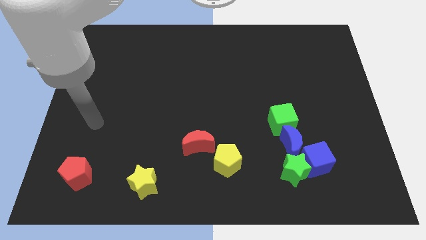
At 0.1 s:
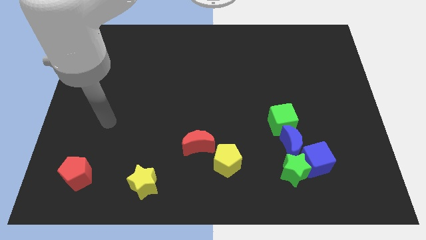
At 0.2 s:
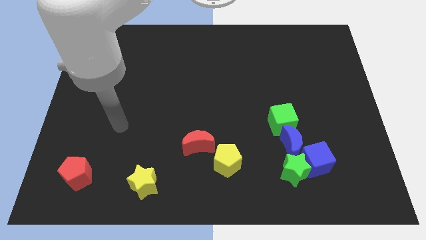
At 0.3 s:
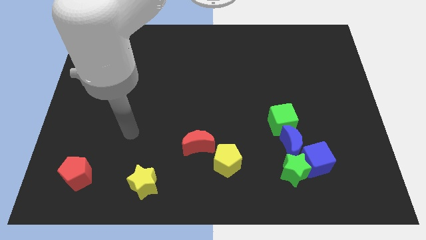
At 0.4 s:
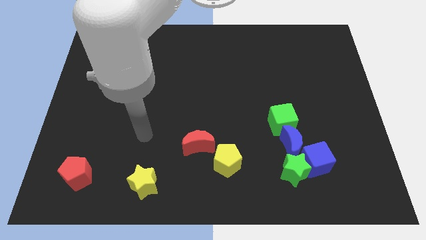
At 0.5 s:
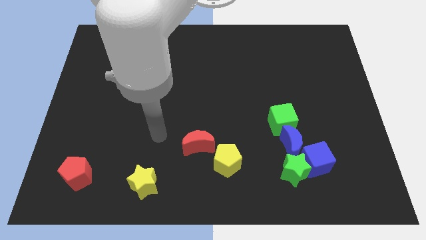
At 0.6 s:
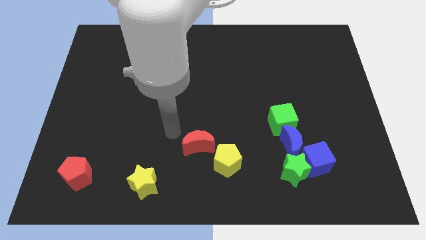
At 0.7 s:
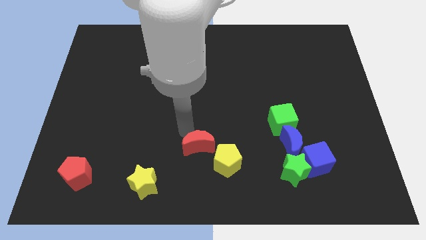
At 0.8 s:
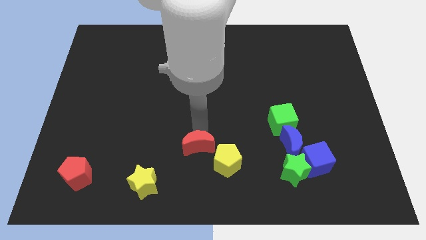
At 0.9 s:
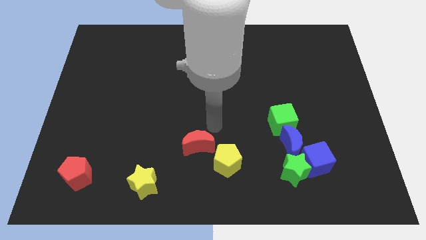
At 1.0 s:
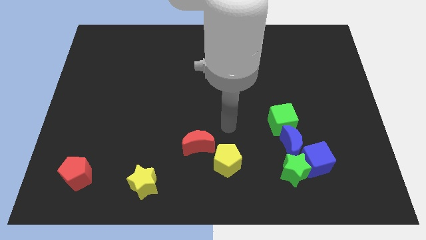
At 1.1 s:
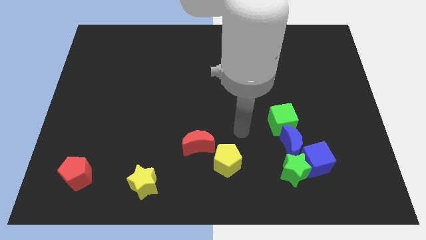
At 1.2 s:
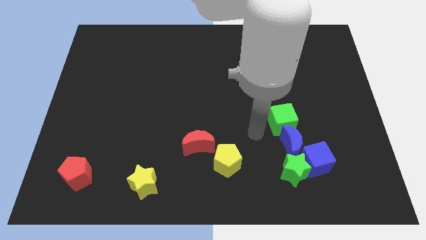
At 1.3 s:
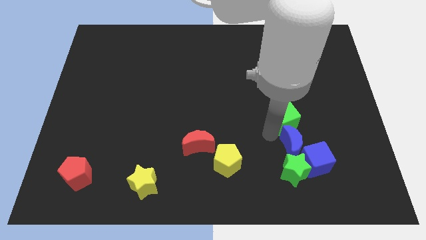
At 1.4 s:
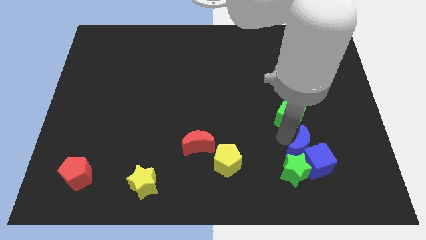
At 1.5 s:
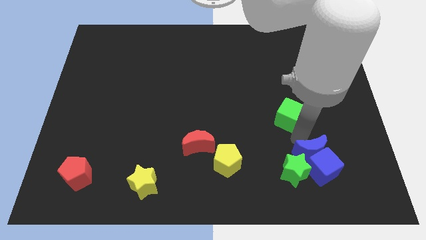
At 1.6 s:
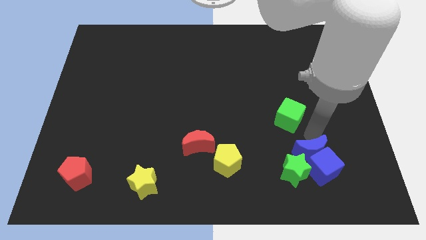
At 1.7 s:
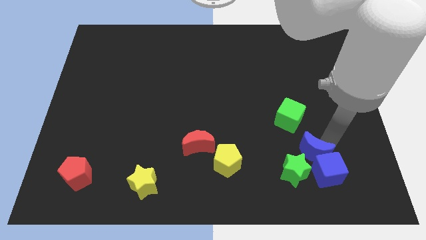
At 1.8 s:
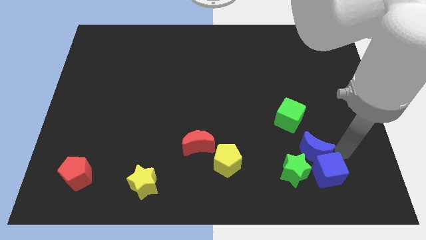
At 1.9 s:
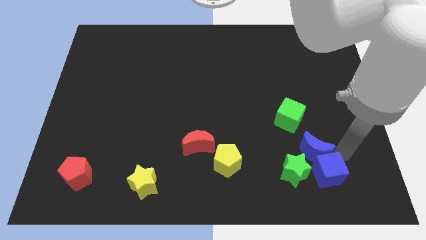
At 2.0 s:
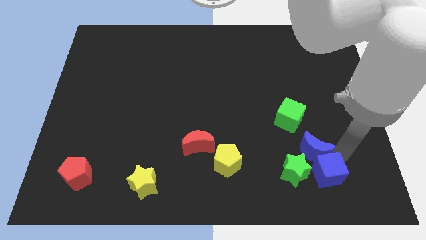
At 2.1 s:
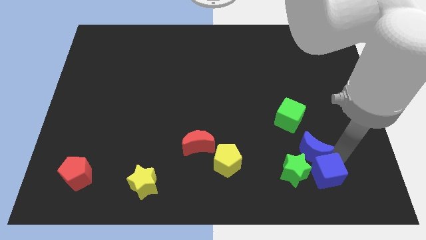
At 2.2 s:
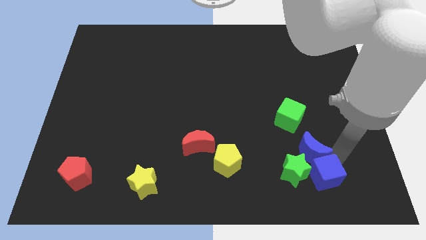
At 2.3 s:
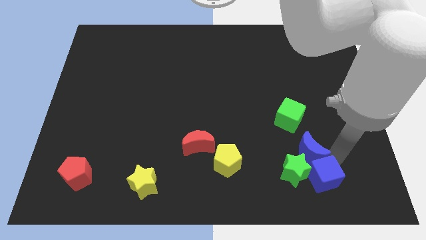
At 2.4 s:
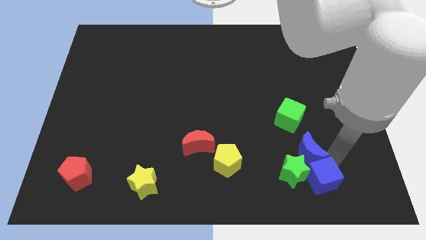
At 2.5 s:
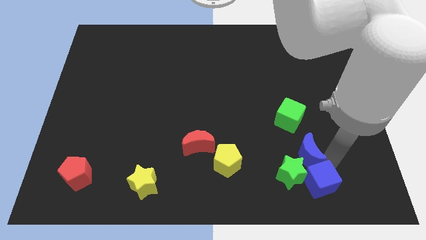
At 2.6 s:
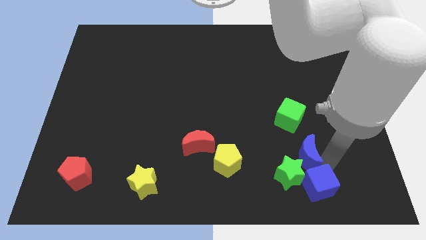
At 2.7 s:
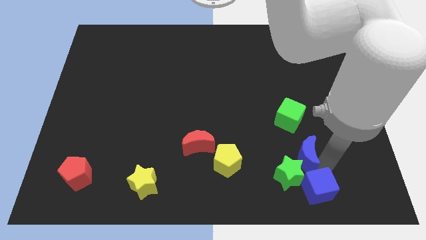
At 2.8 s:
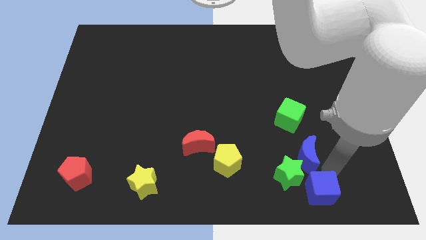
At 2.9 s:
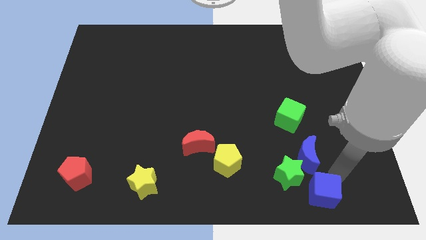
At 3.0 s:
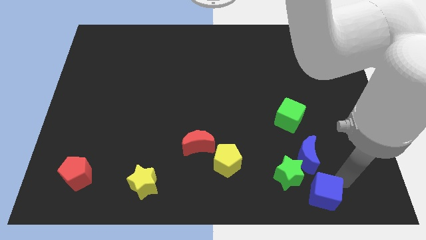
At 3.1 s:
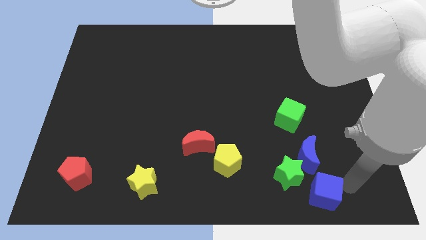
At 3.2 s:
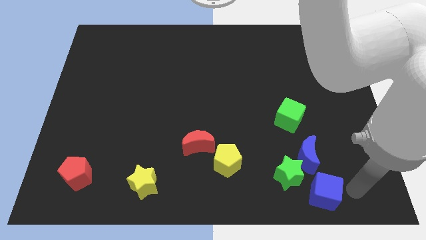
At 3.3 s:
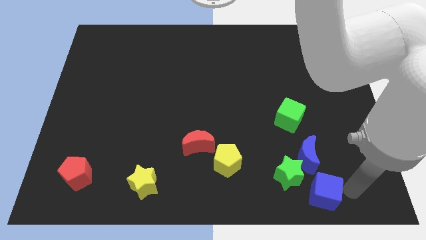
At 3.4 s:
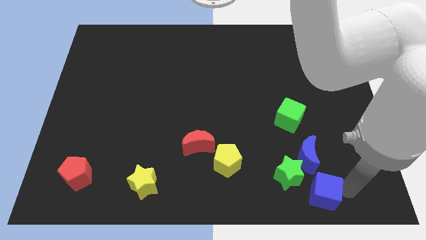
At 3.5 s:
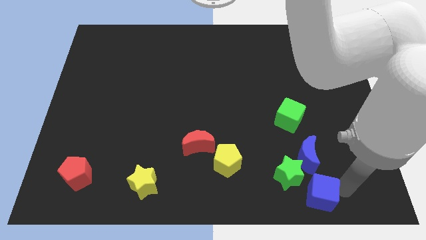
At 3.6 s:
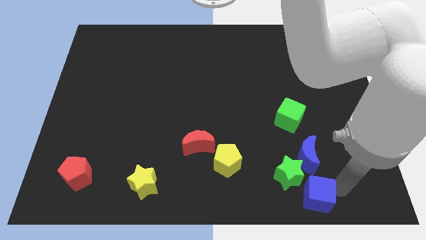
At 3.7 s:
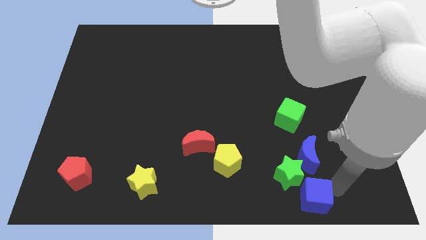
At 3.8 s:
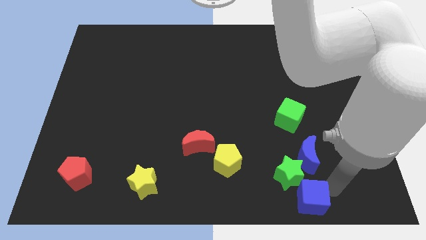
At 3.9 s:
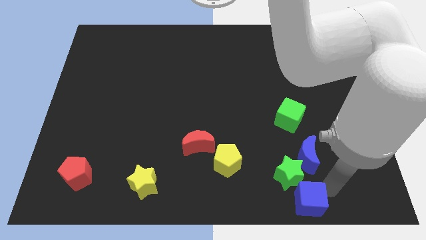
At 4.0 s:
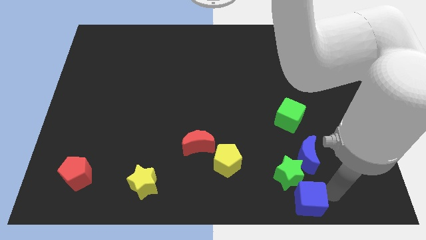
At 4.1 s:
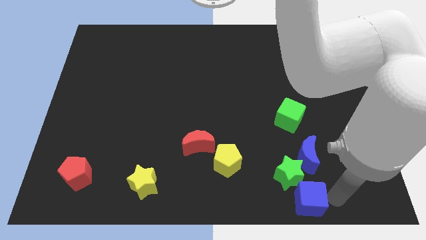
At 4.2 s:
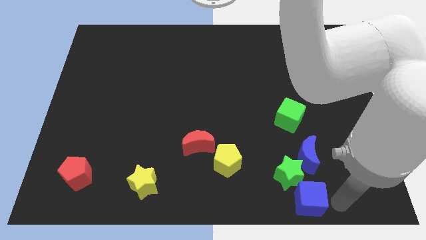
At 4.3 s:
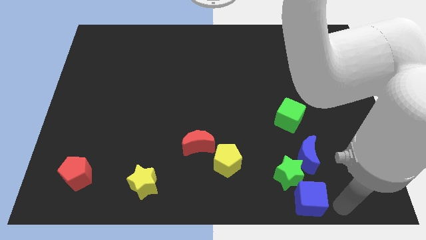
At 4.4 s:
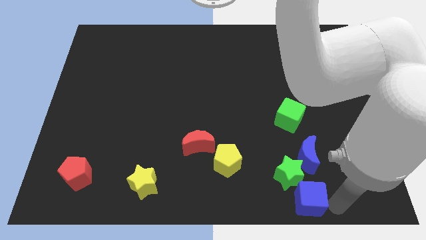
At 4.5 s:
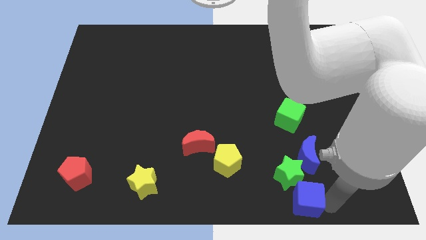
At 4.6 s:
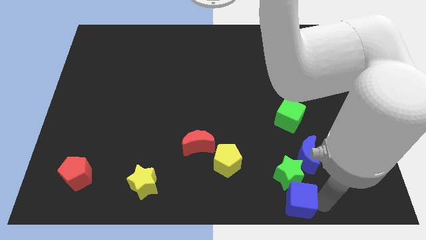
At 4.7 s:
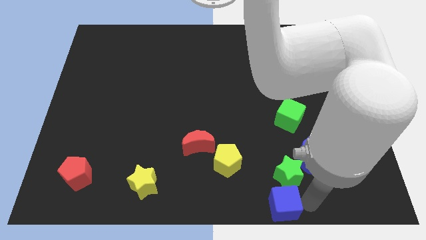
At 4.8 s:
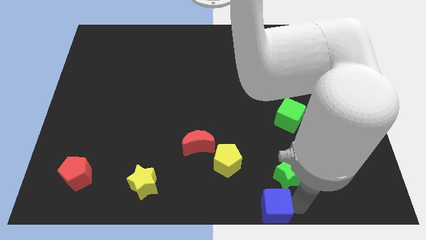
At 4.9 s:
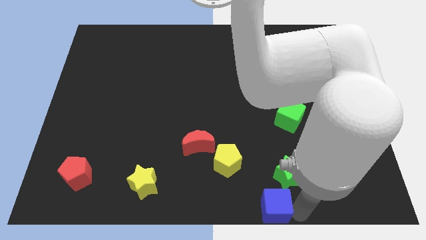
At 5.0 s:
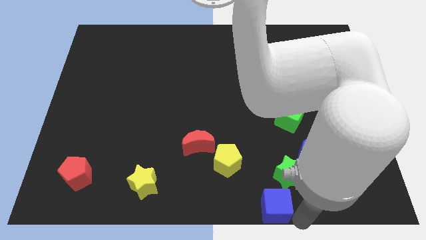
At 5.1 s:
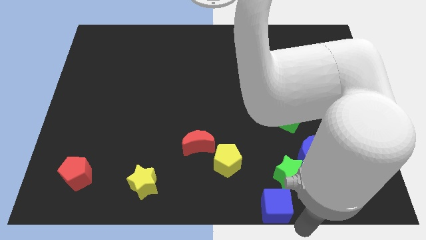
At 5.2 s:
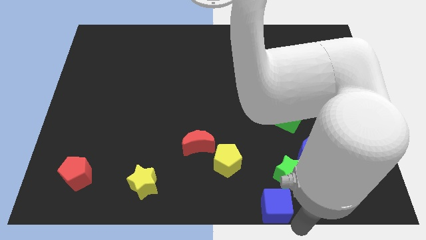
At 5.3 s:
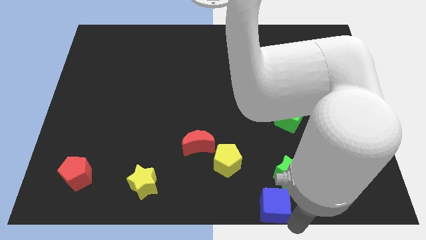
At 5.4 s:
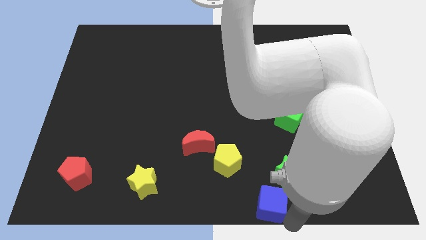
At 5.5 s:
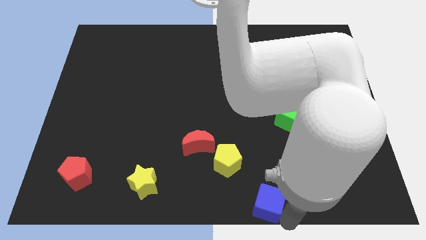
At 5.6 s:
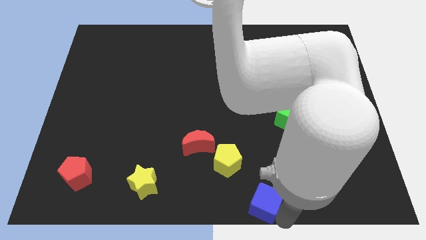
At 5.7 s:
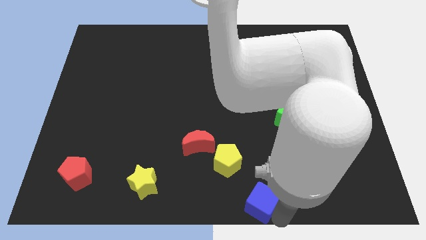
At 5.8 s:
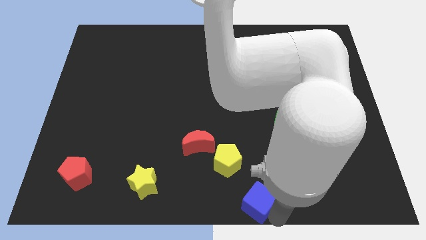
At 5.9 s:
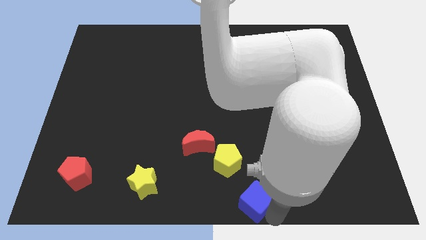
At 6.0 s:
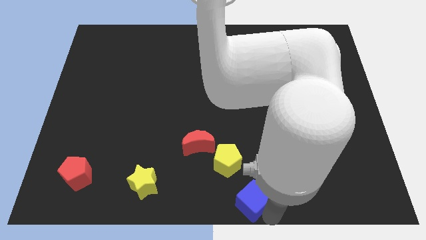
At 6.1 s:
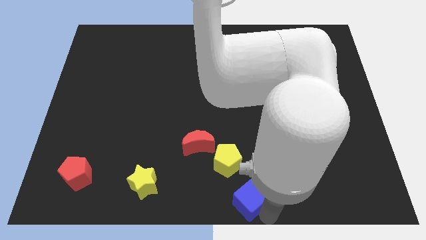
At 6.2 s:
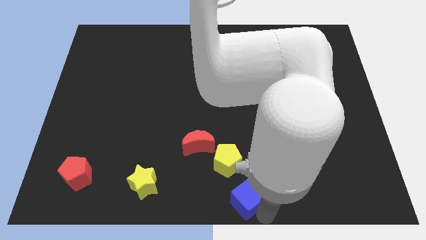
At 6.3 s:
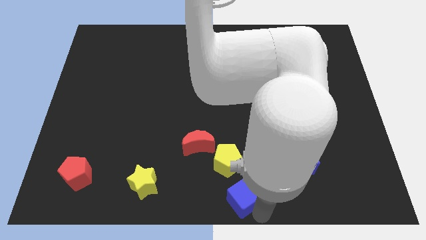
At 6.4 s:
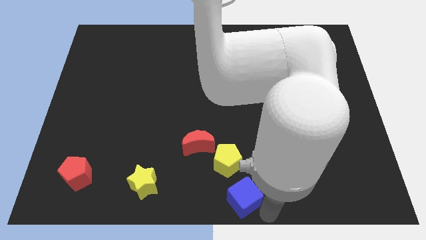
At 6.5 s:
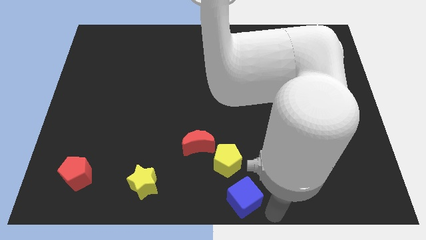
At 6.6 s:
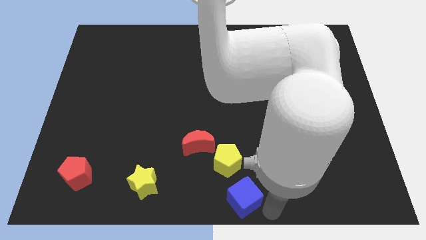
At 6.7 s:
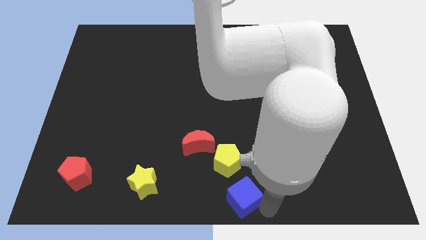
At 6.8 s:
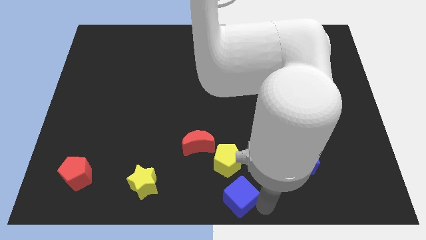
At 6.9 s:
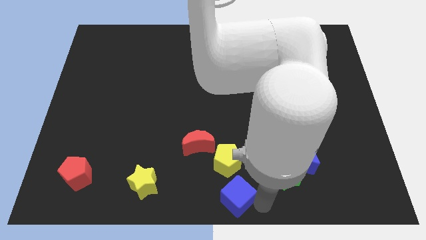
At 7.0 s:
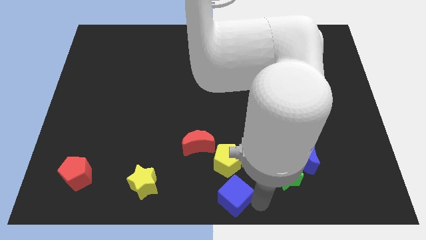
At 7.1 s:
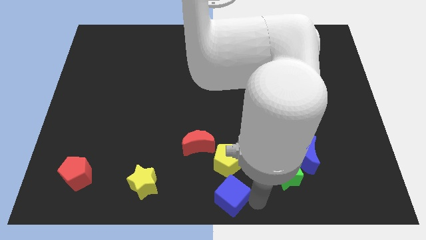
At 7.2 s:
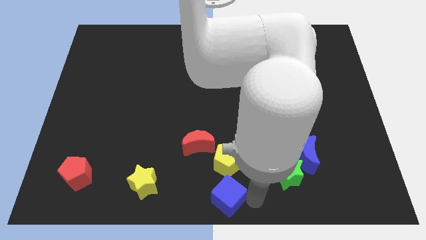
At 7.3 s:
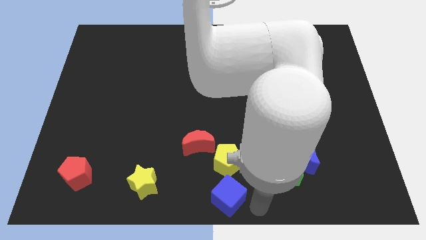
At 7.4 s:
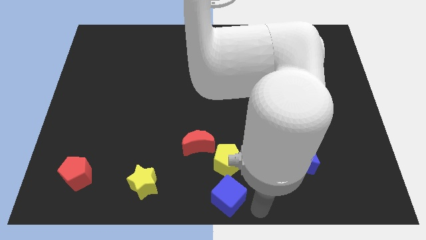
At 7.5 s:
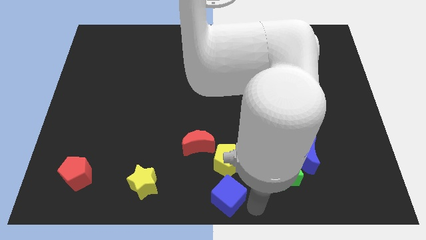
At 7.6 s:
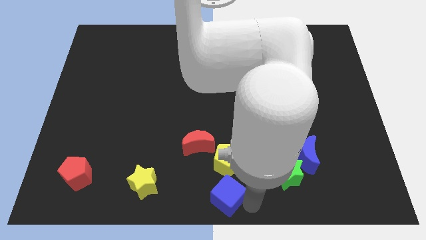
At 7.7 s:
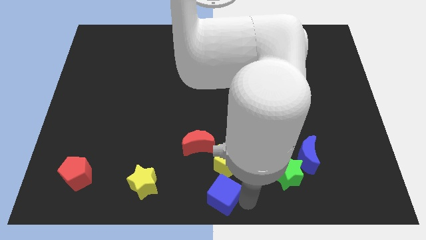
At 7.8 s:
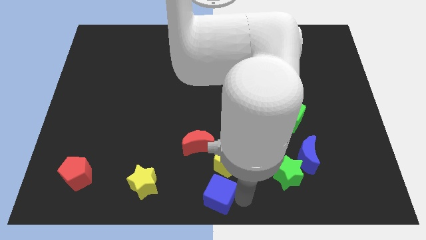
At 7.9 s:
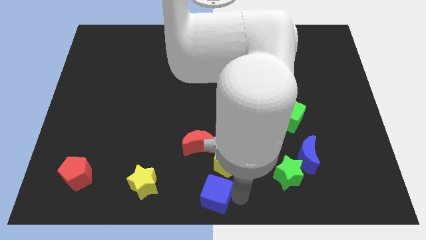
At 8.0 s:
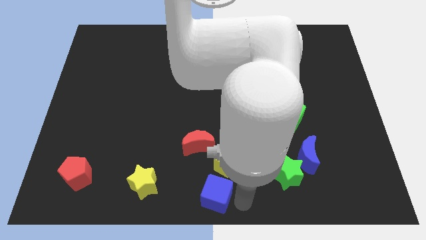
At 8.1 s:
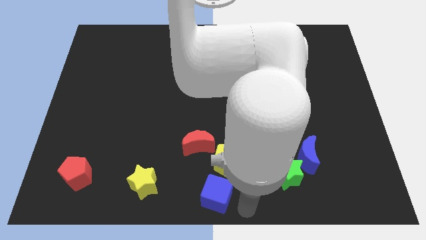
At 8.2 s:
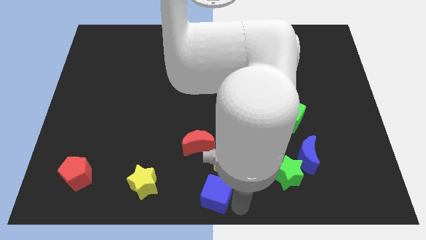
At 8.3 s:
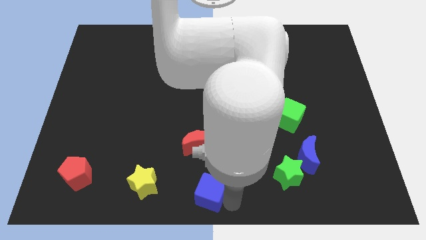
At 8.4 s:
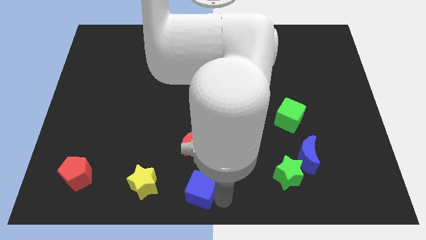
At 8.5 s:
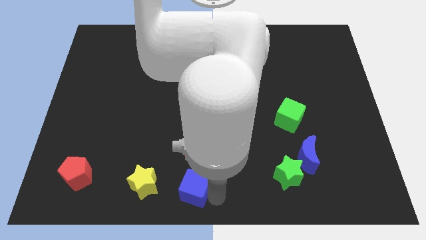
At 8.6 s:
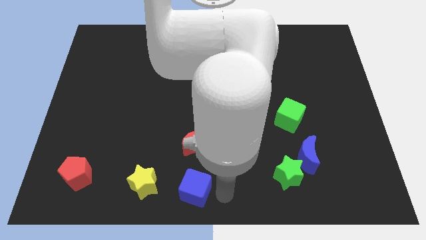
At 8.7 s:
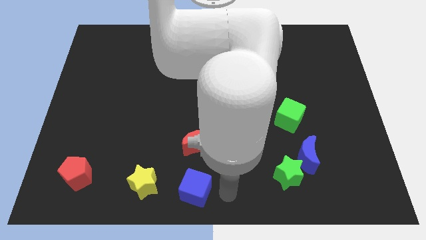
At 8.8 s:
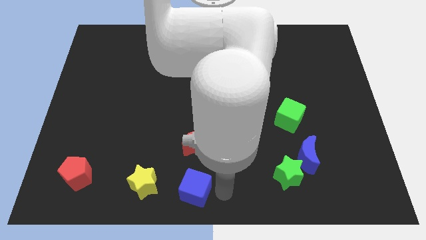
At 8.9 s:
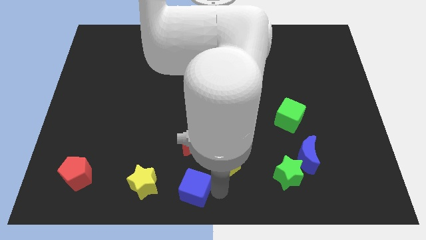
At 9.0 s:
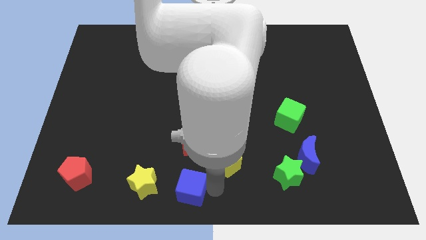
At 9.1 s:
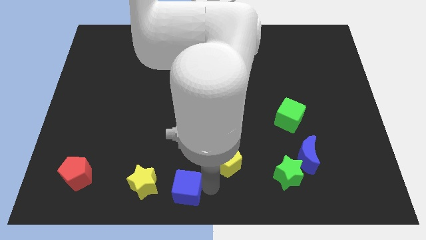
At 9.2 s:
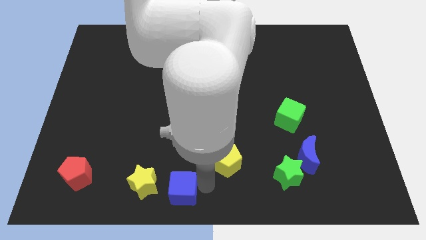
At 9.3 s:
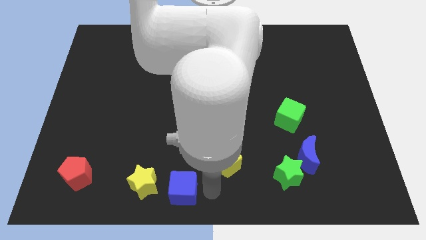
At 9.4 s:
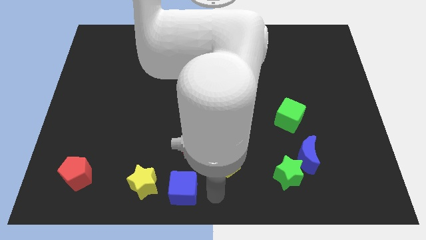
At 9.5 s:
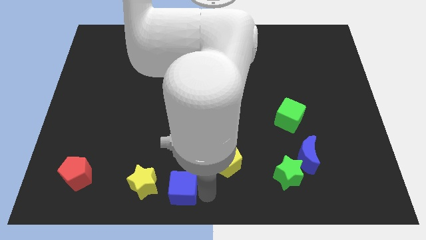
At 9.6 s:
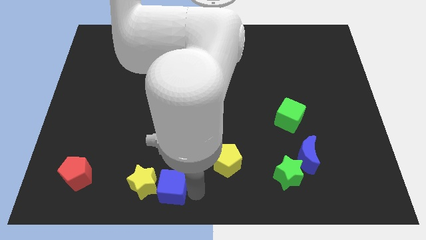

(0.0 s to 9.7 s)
move the blue cube to the yellow star
